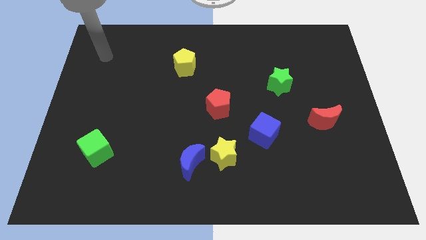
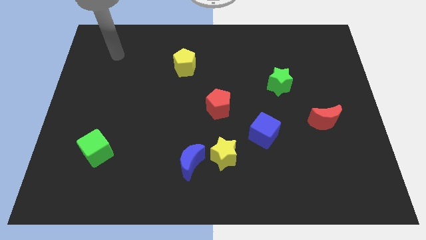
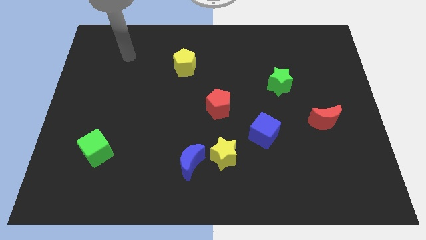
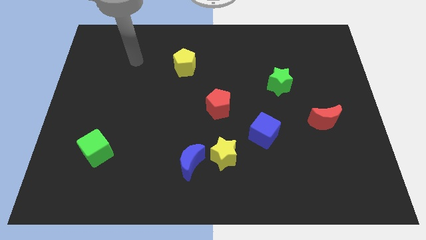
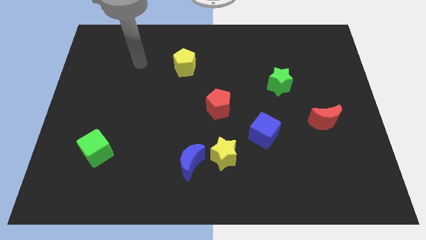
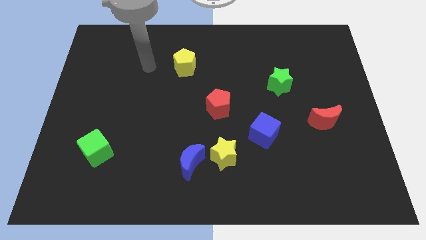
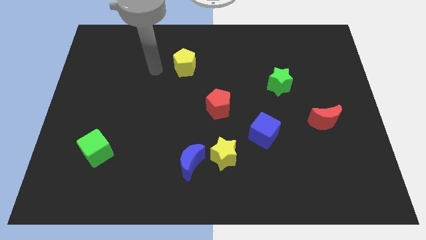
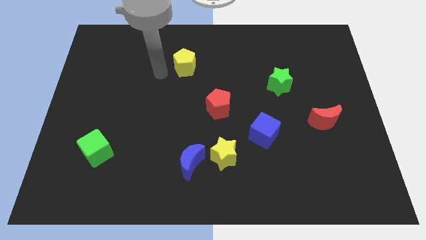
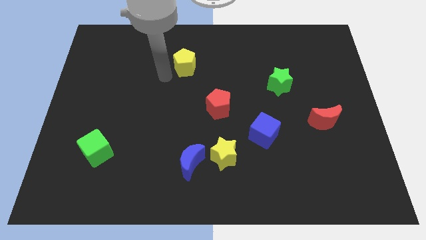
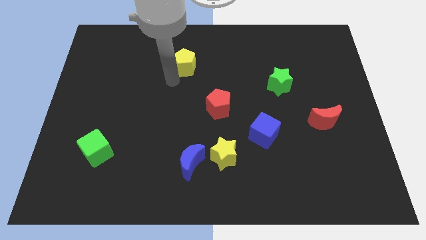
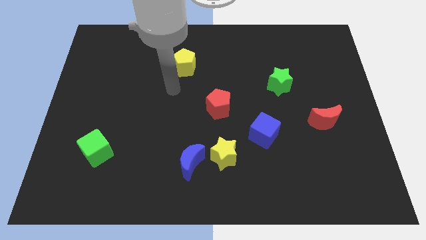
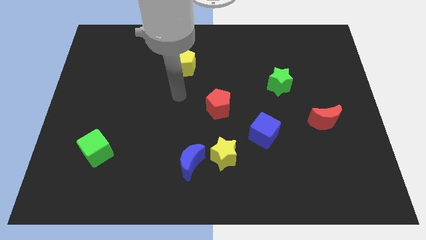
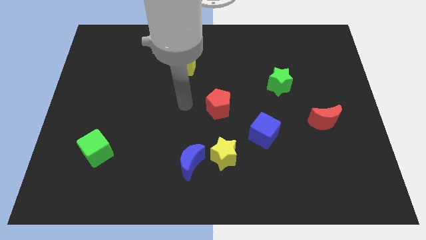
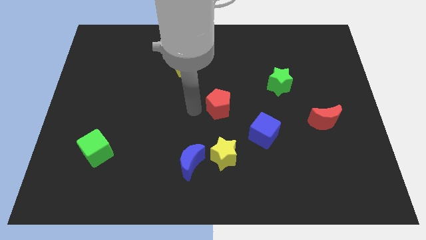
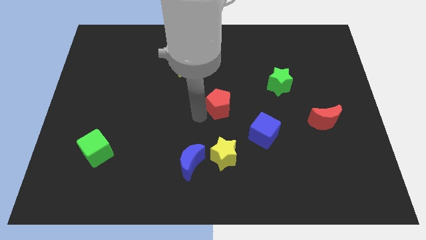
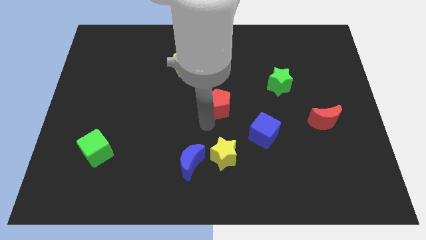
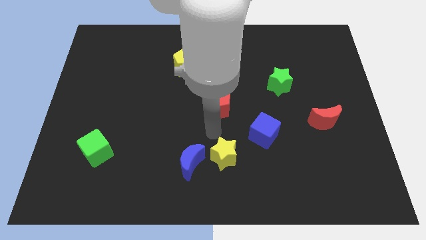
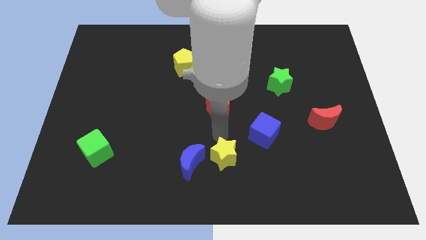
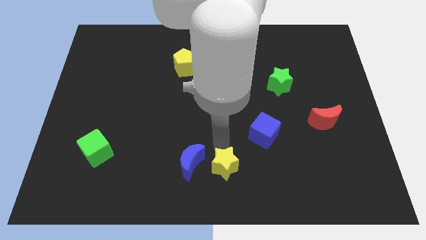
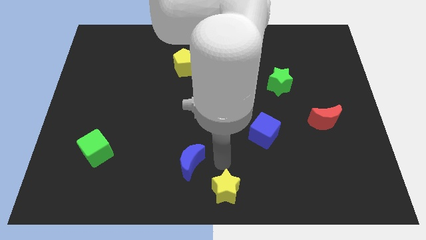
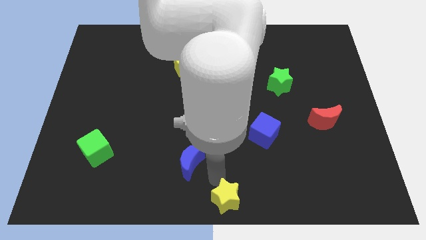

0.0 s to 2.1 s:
pull the blue moon apart from the yellow star

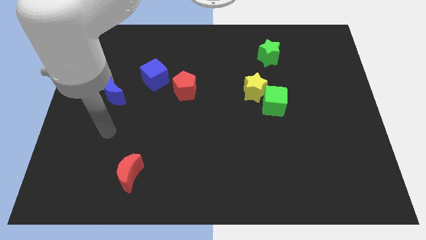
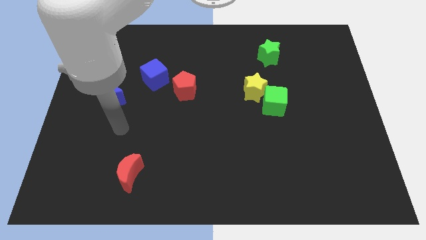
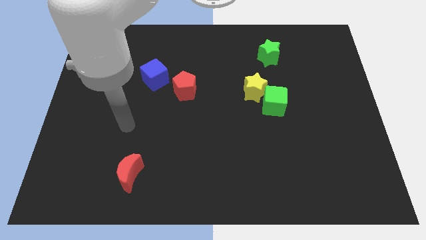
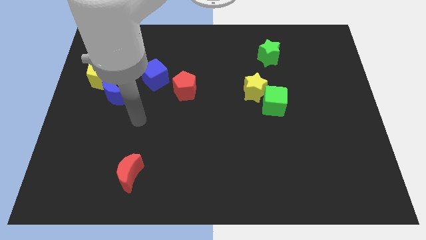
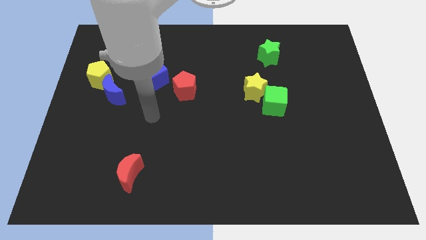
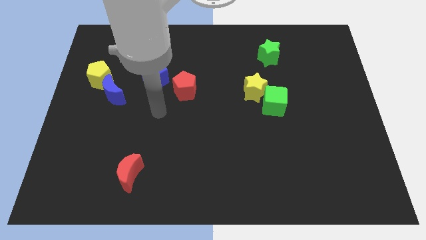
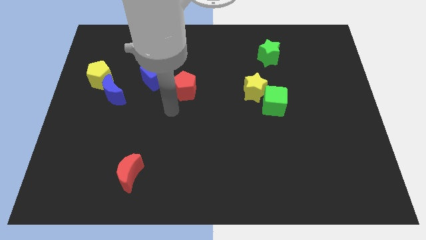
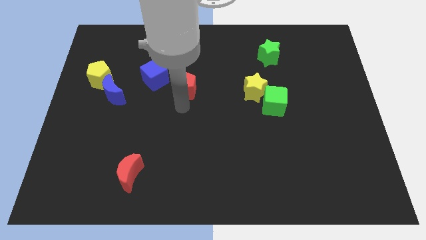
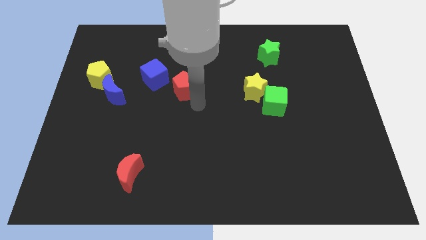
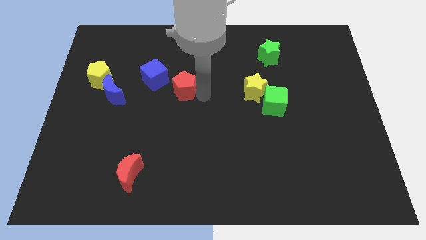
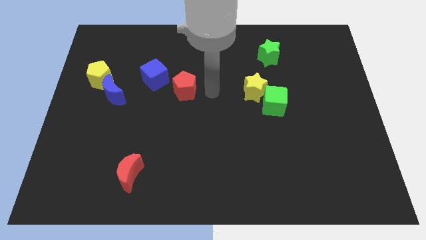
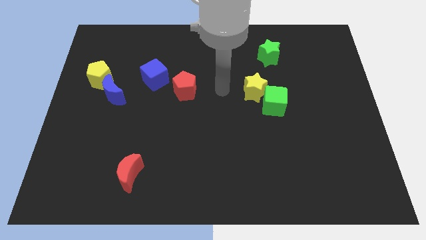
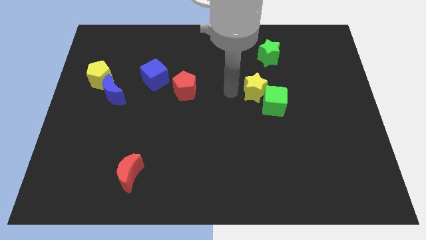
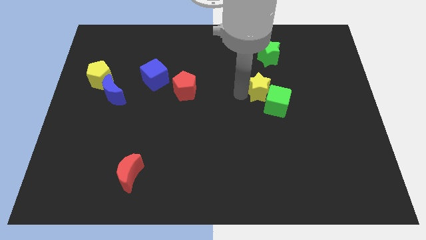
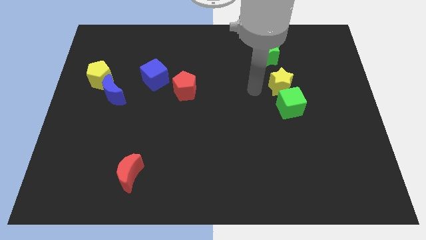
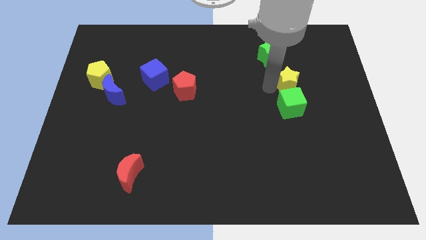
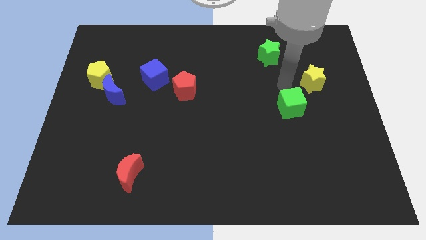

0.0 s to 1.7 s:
separate the green cube from the yellow star

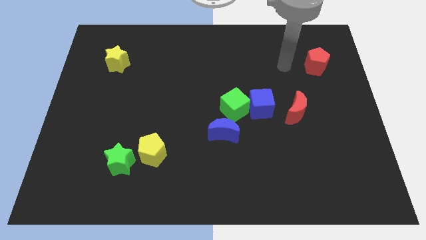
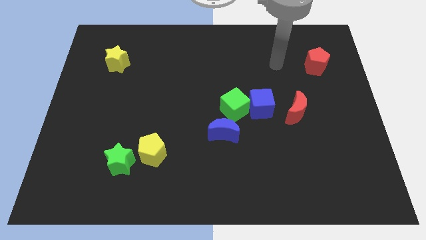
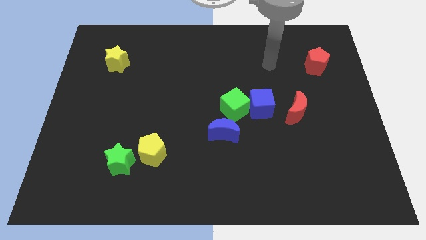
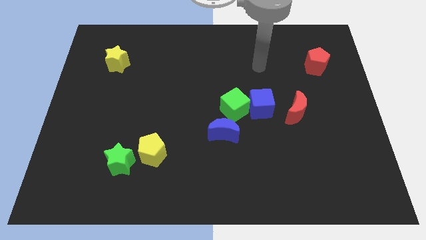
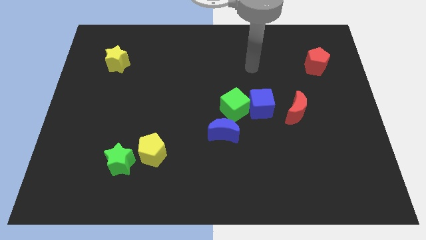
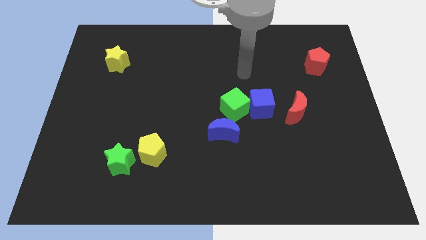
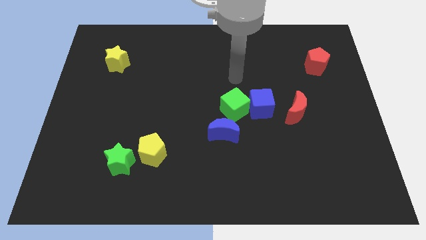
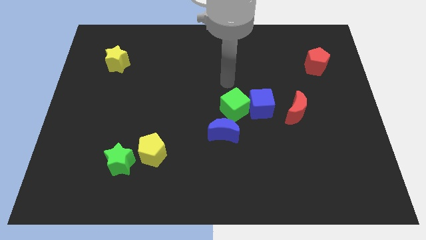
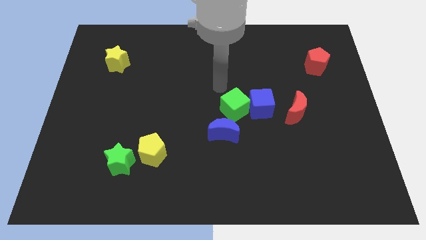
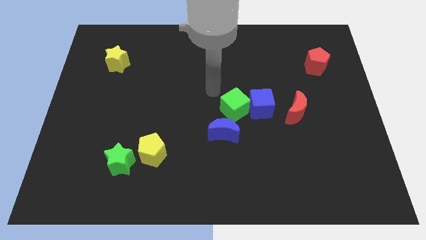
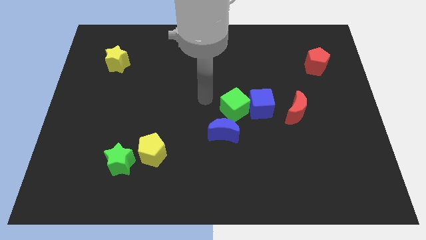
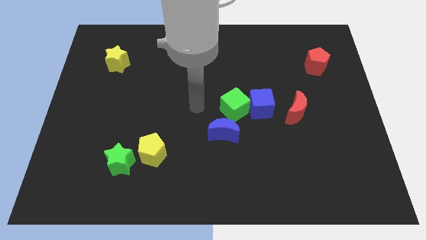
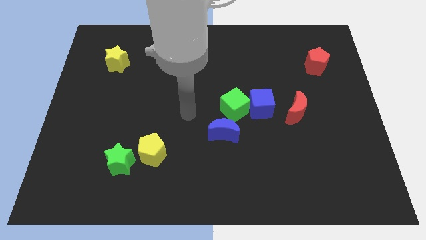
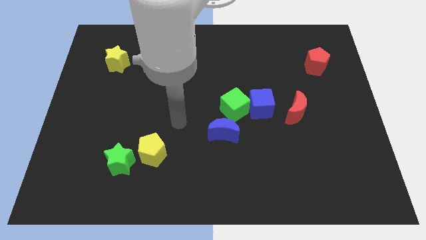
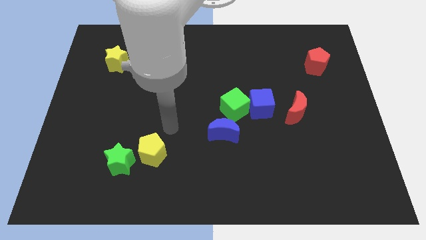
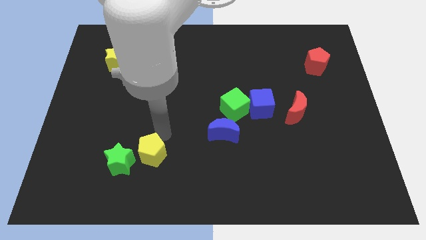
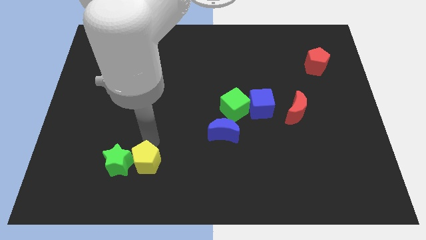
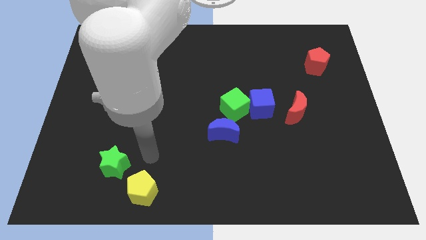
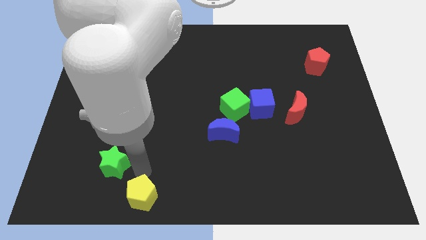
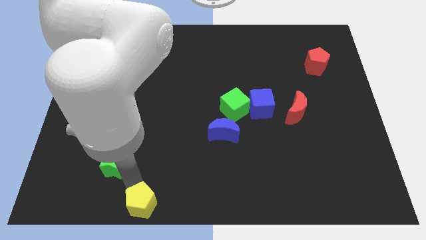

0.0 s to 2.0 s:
pull the green star apart from the yellow pentagon

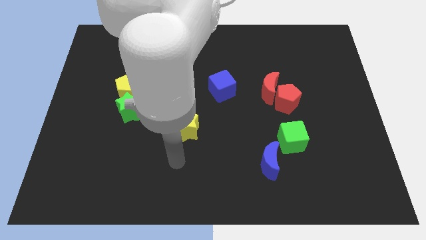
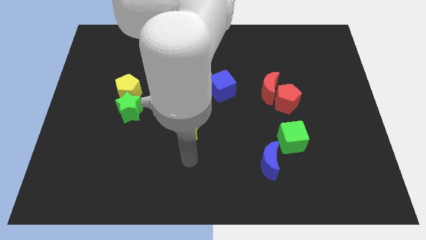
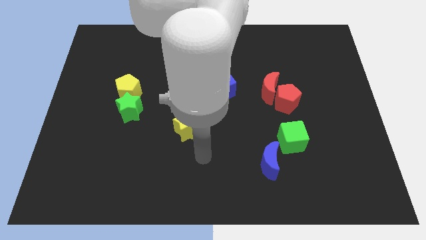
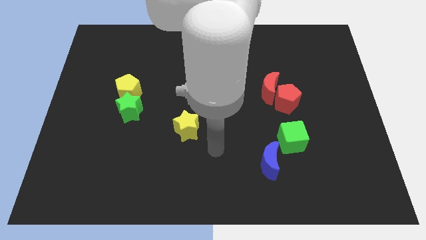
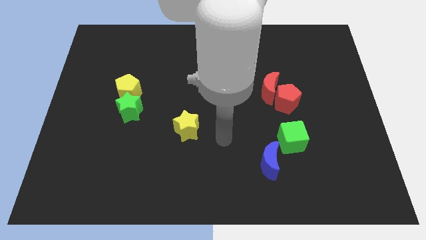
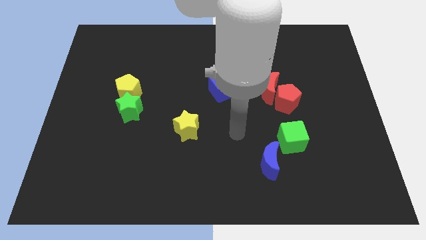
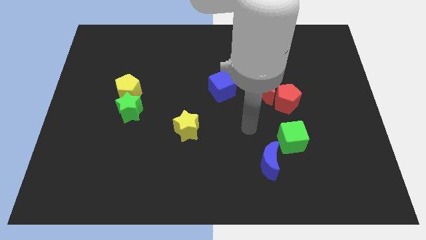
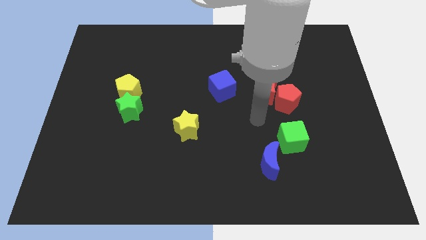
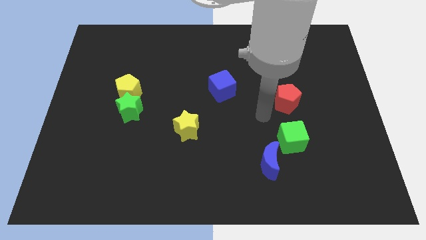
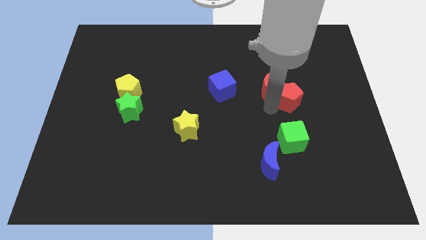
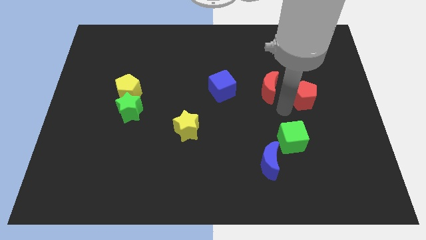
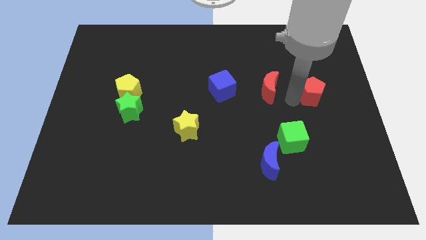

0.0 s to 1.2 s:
pull the red moon apart from the red pentagon

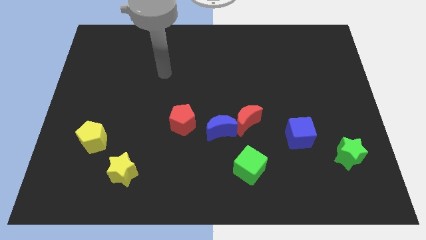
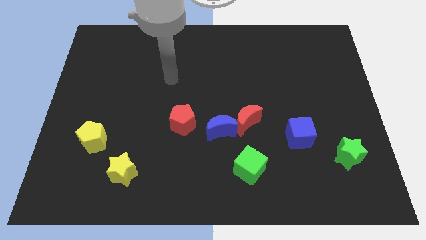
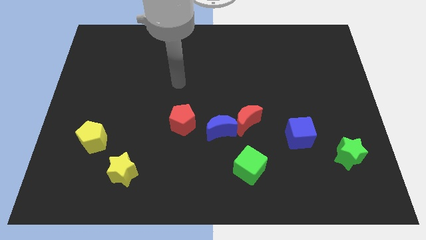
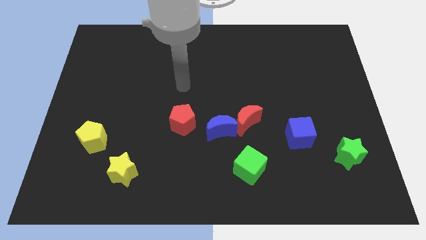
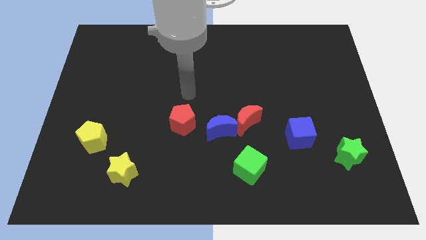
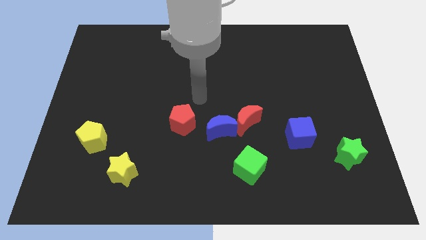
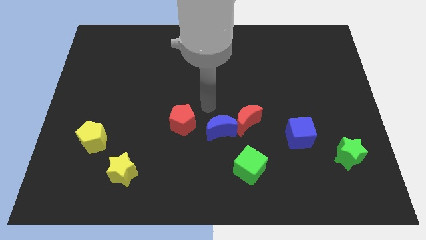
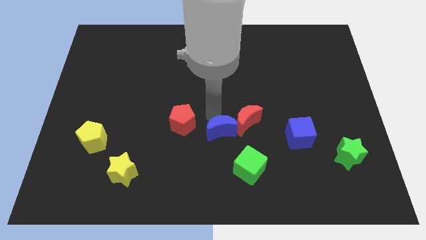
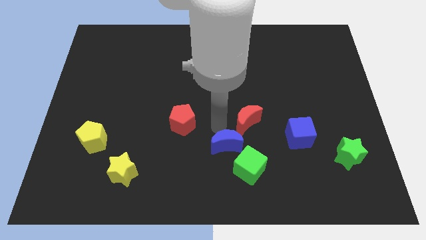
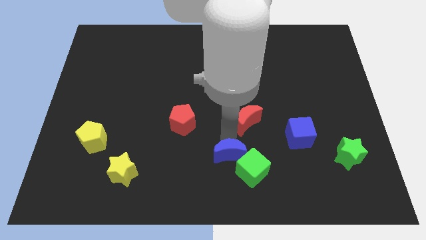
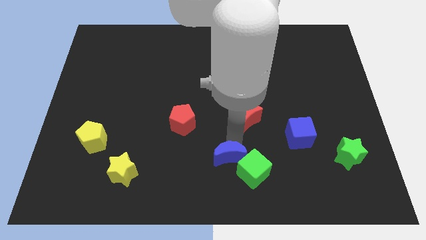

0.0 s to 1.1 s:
move the red moon away from the blue moon

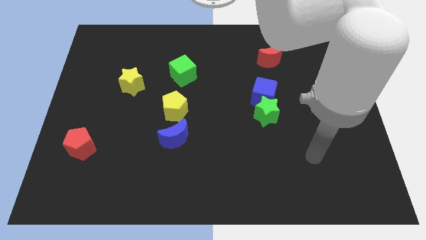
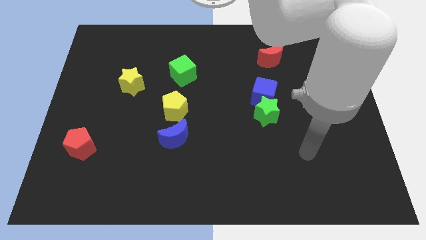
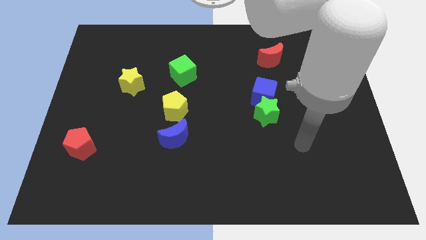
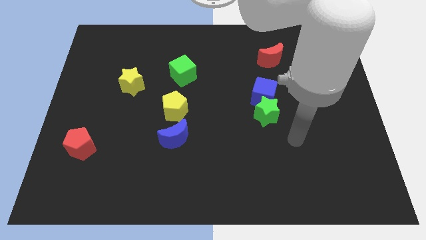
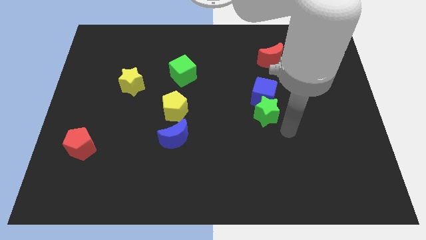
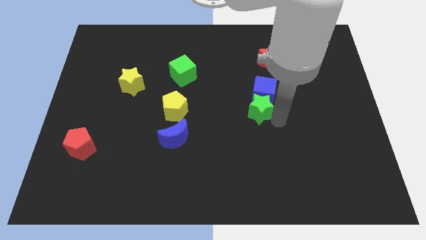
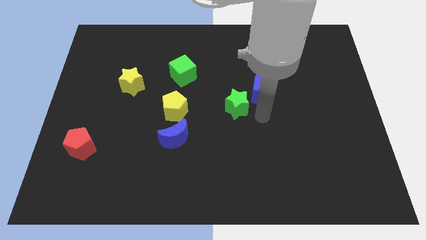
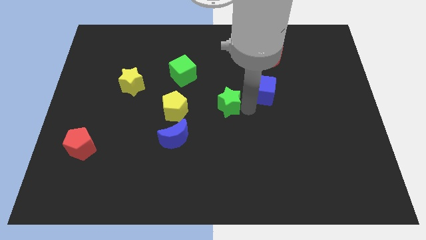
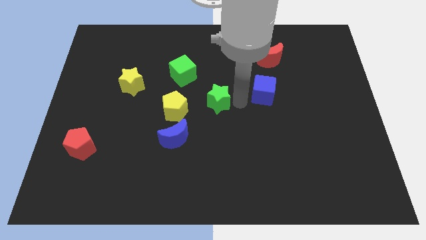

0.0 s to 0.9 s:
pull the blue cube apart from the green star

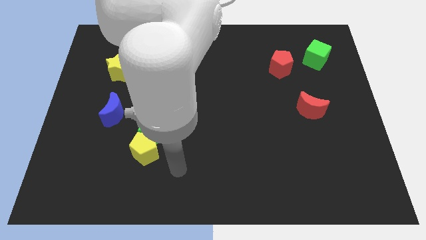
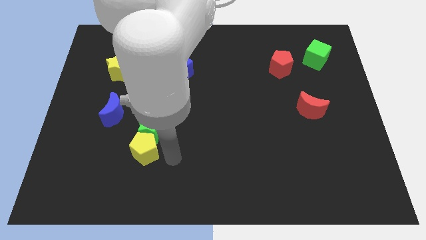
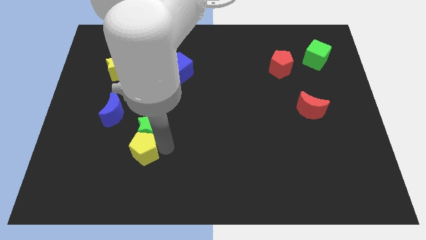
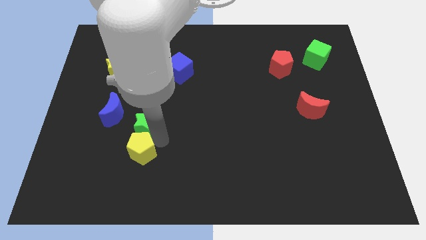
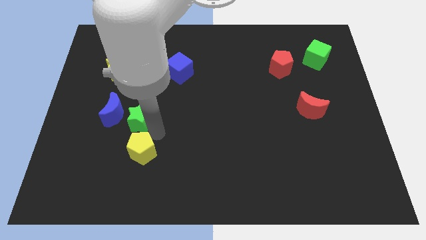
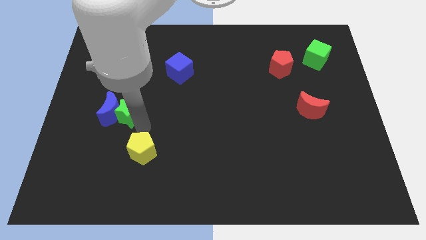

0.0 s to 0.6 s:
move the yellow pentagon away from the green star
